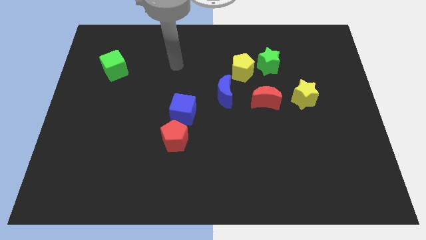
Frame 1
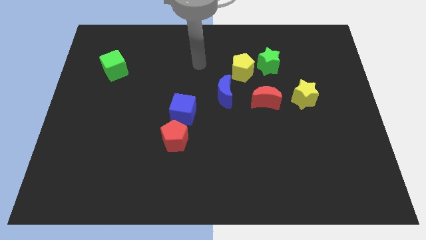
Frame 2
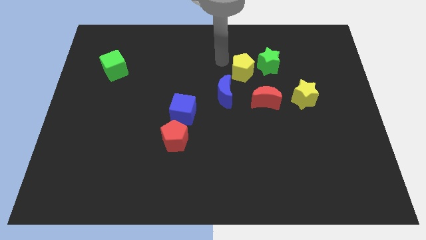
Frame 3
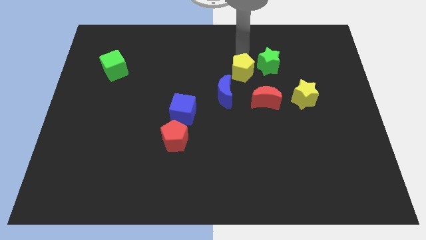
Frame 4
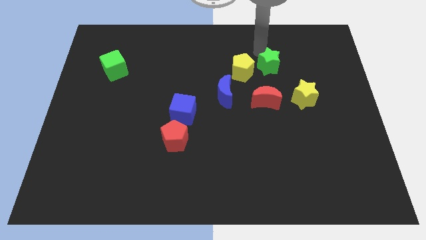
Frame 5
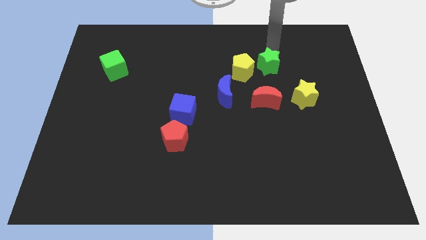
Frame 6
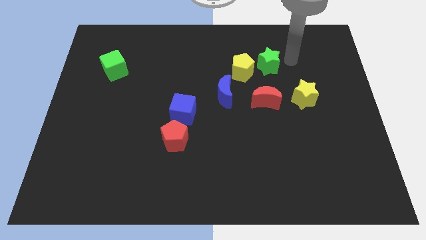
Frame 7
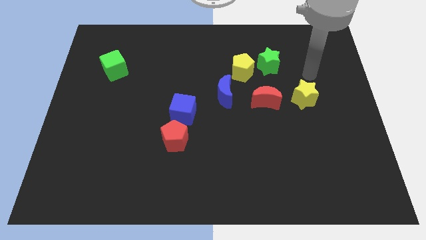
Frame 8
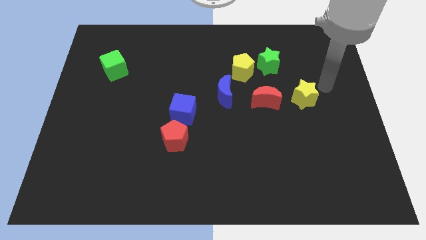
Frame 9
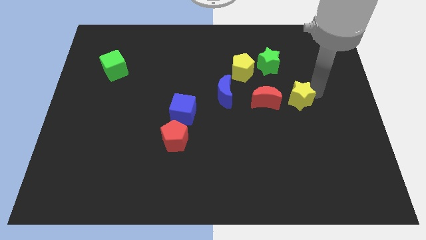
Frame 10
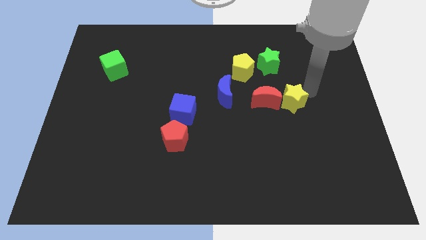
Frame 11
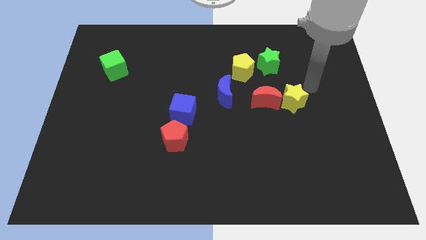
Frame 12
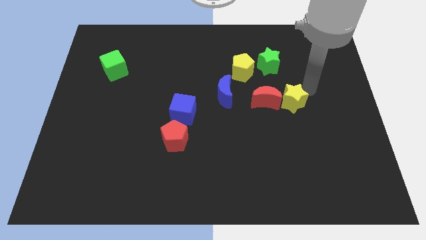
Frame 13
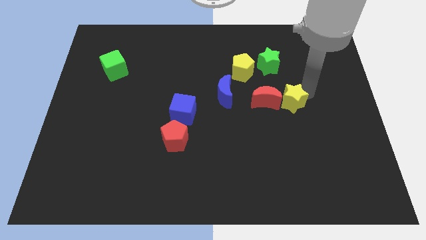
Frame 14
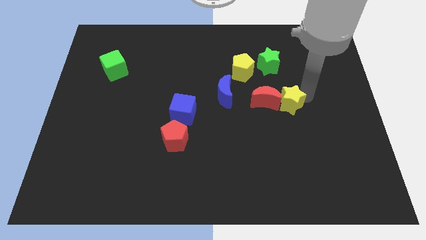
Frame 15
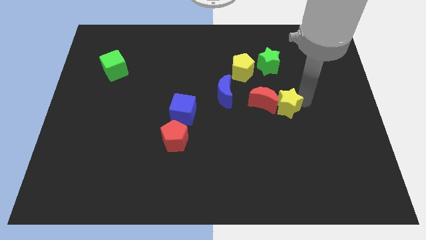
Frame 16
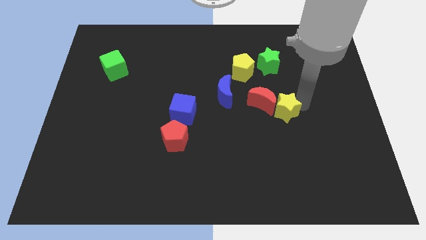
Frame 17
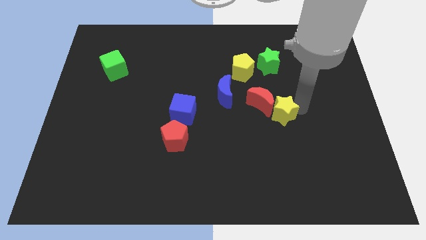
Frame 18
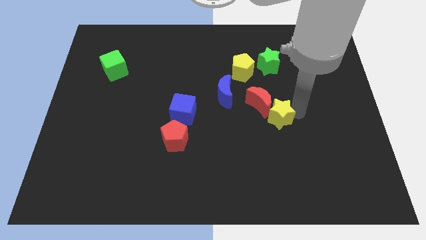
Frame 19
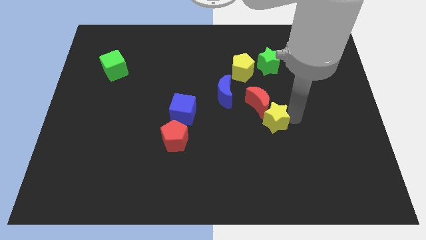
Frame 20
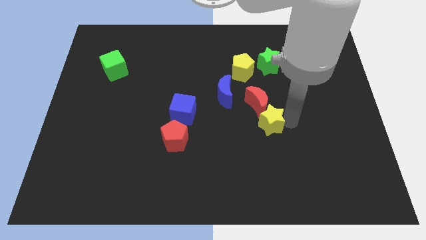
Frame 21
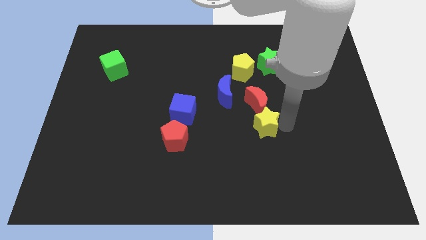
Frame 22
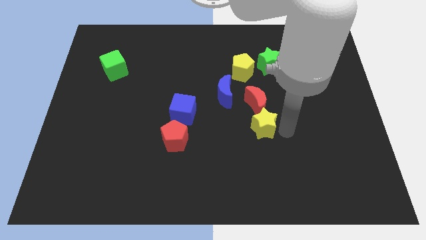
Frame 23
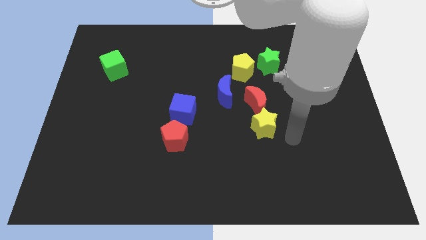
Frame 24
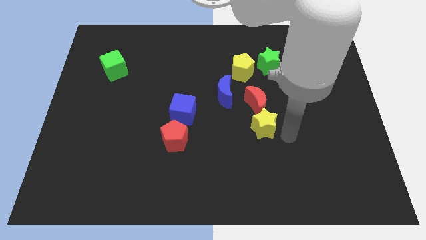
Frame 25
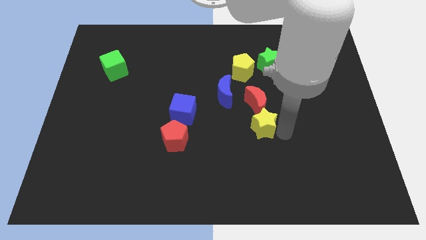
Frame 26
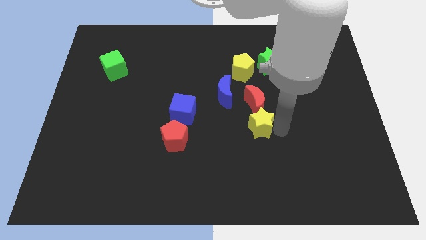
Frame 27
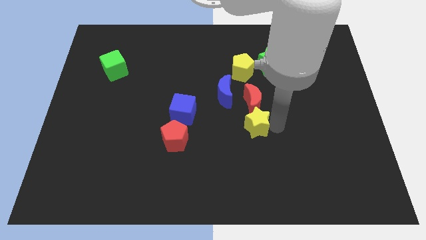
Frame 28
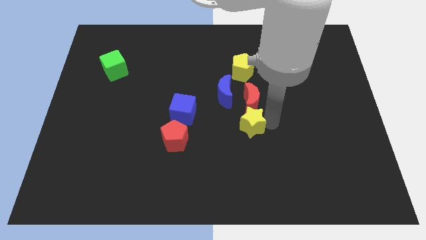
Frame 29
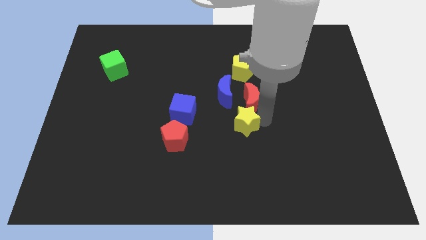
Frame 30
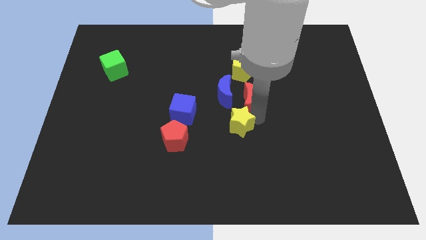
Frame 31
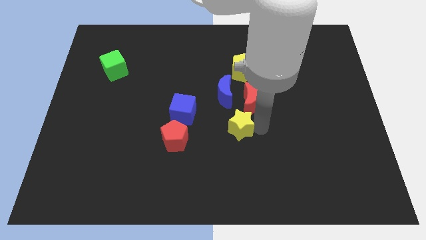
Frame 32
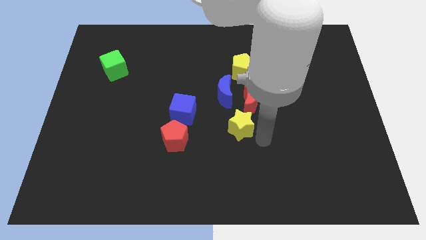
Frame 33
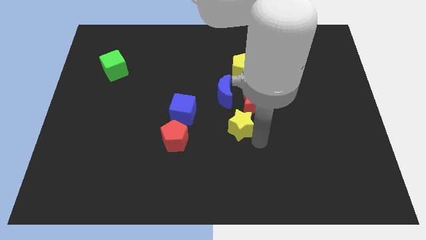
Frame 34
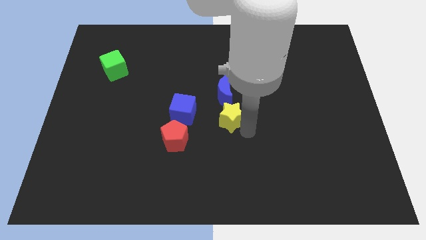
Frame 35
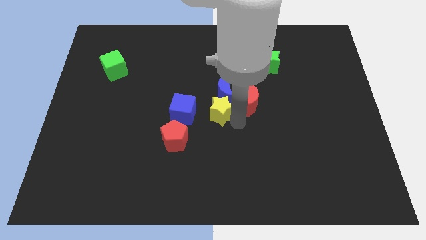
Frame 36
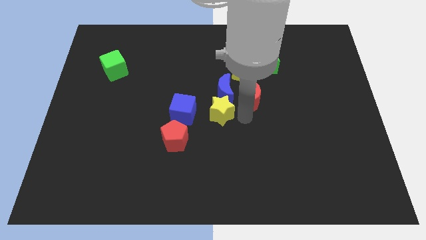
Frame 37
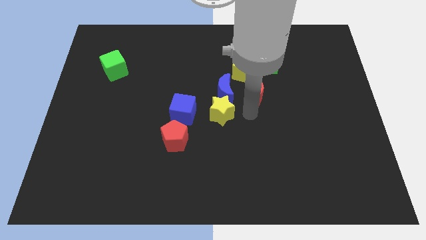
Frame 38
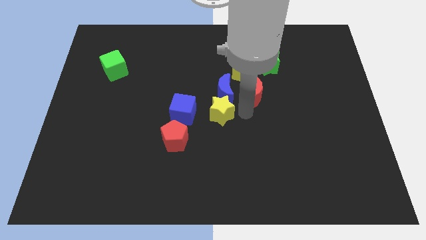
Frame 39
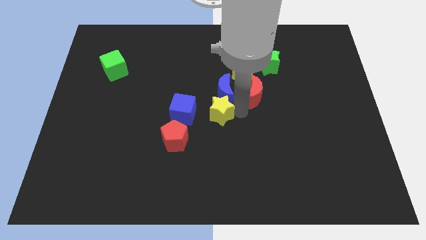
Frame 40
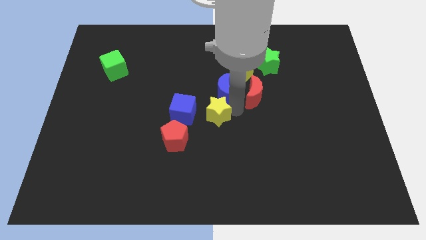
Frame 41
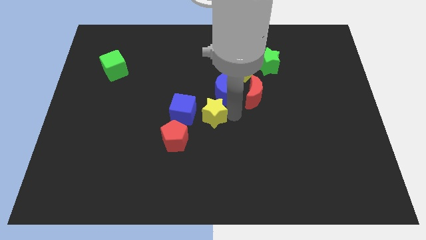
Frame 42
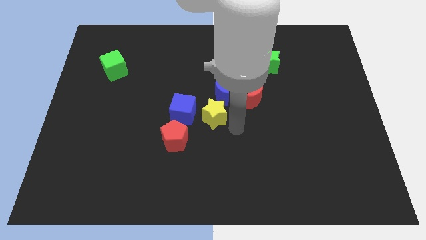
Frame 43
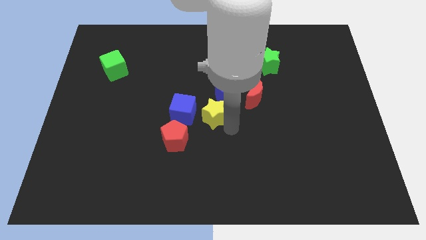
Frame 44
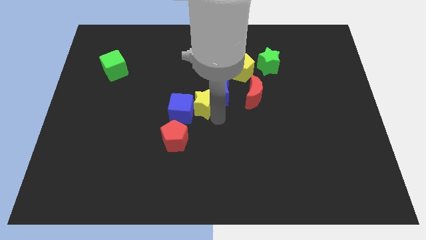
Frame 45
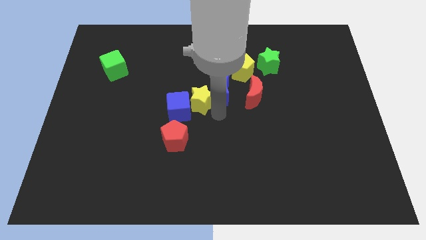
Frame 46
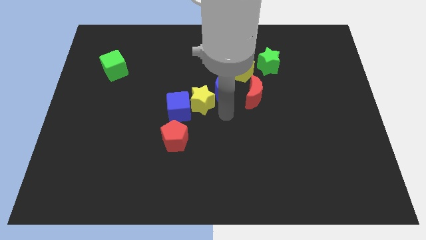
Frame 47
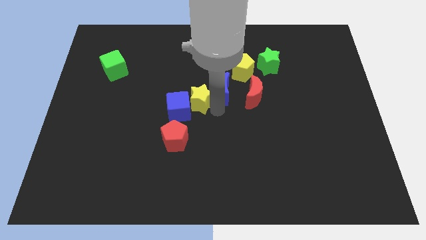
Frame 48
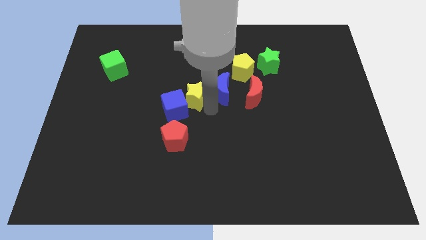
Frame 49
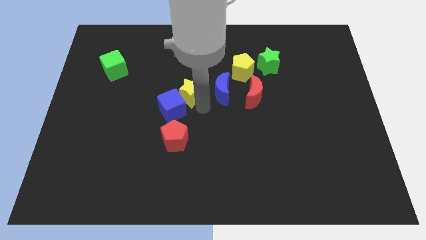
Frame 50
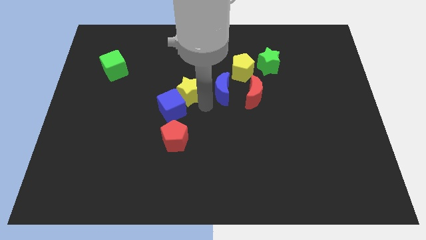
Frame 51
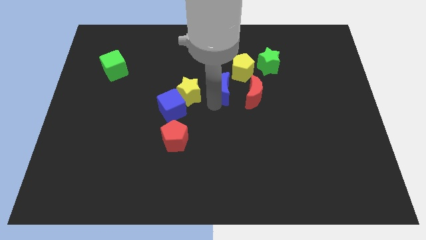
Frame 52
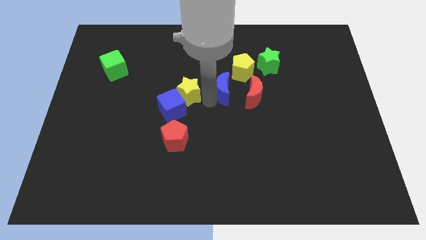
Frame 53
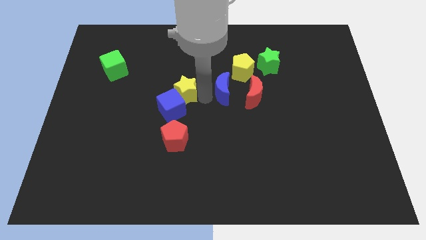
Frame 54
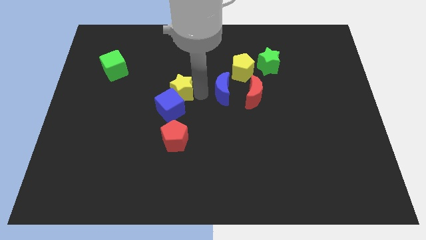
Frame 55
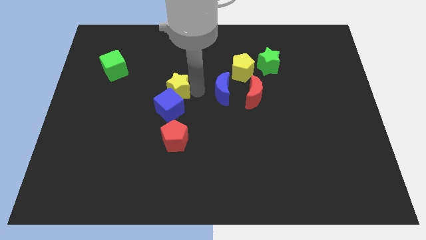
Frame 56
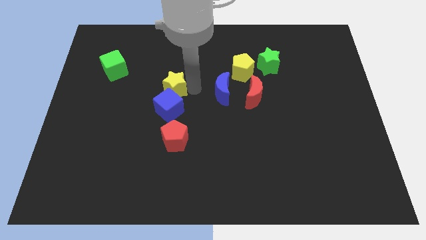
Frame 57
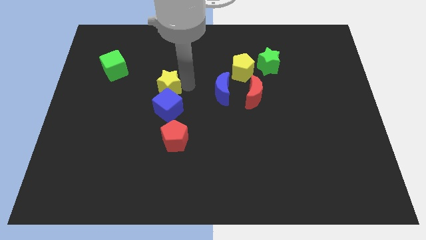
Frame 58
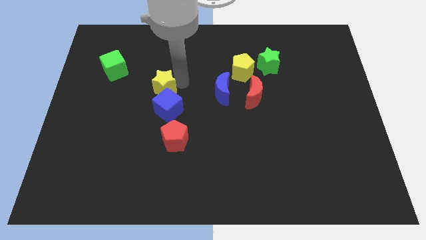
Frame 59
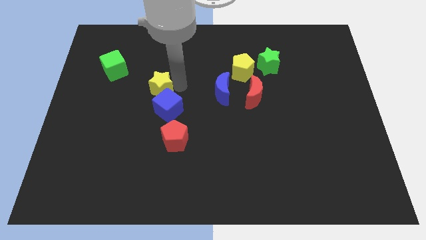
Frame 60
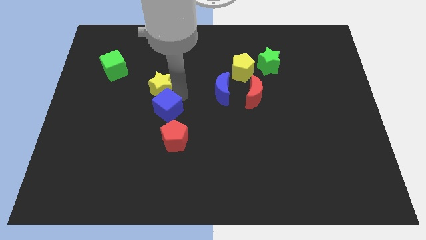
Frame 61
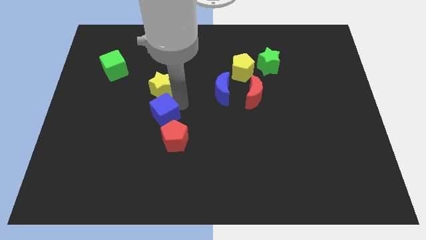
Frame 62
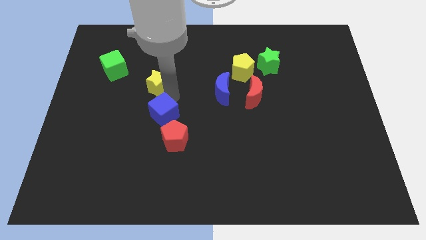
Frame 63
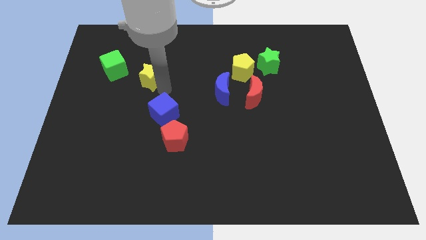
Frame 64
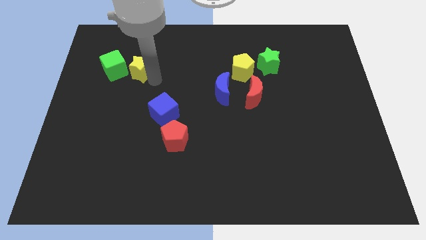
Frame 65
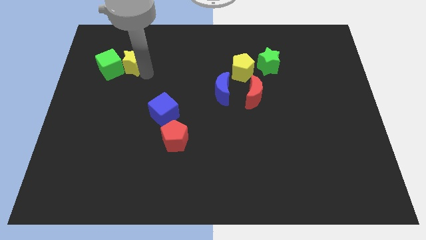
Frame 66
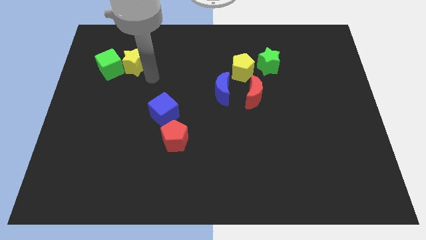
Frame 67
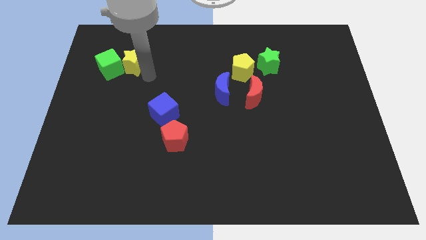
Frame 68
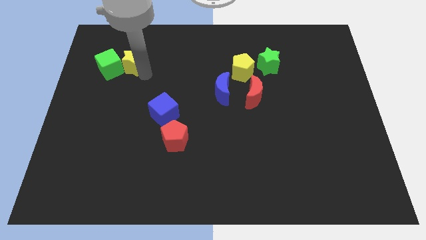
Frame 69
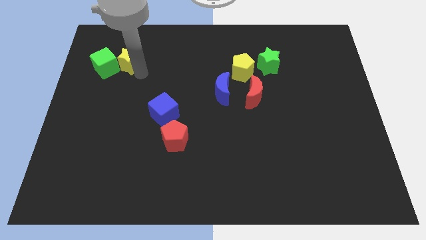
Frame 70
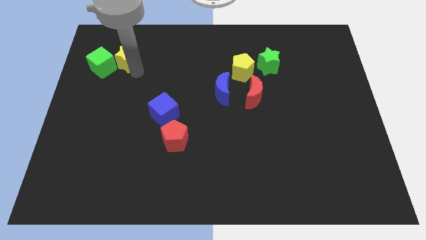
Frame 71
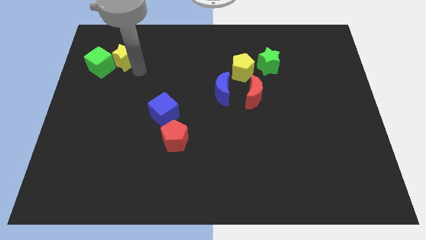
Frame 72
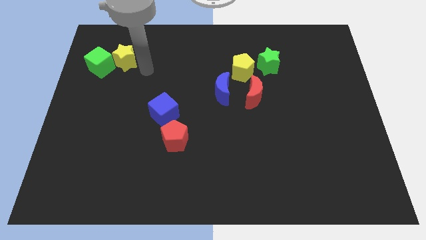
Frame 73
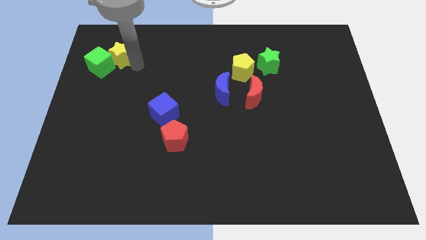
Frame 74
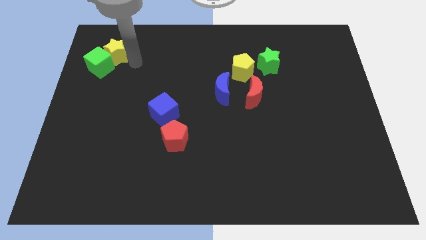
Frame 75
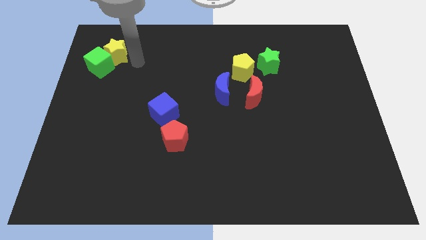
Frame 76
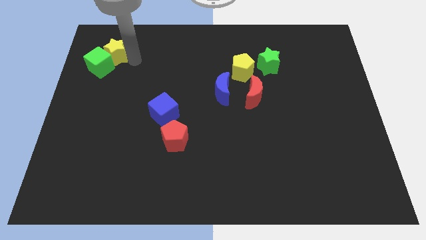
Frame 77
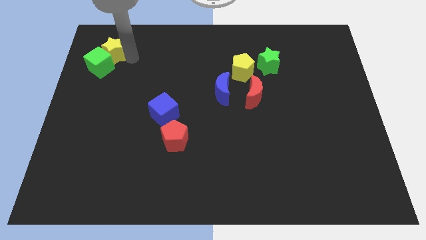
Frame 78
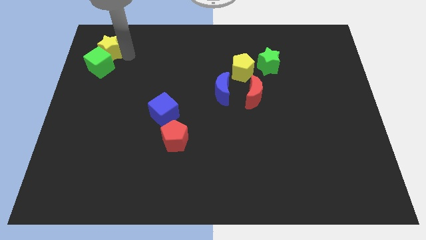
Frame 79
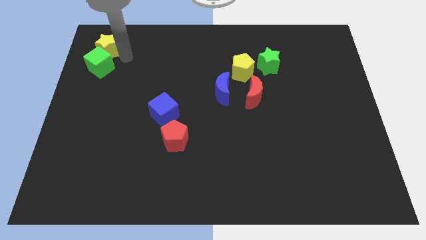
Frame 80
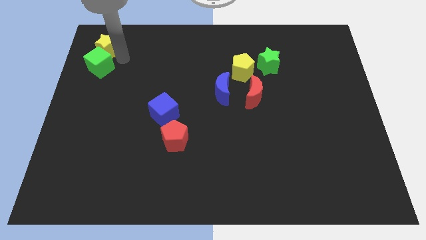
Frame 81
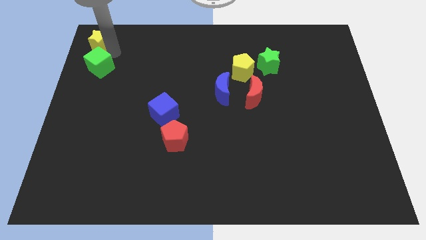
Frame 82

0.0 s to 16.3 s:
move the yellow star to the top left of the board
